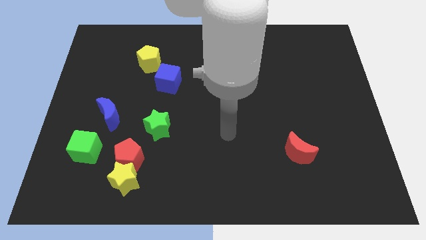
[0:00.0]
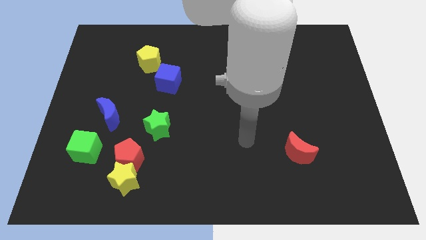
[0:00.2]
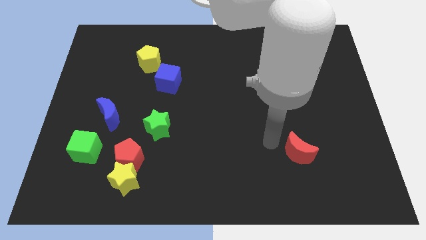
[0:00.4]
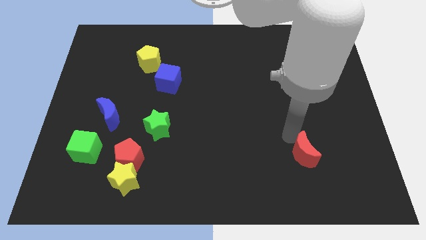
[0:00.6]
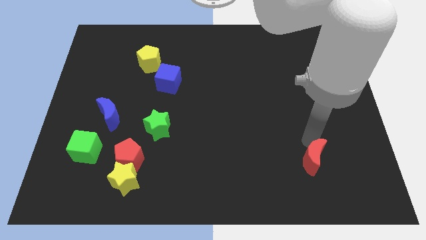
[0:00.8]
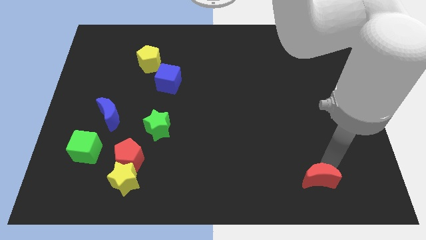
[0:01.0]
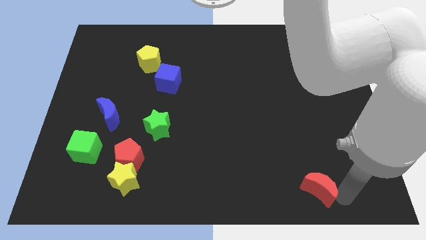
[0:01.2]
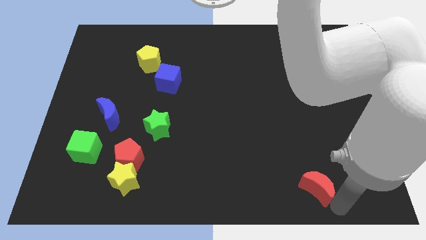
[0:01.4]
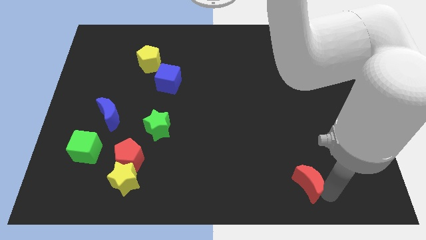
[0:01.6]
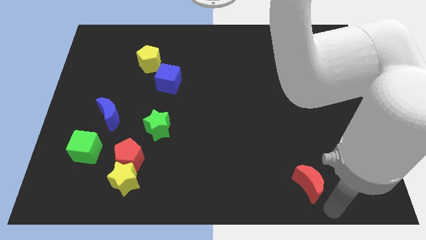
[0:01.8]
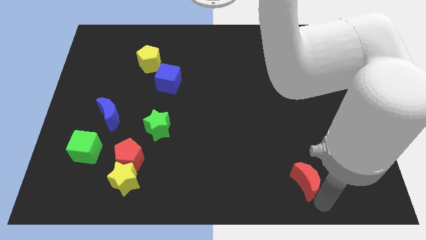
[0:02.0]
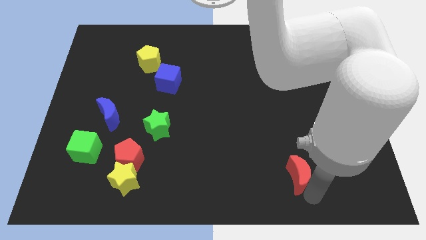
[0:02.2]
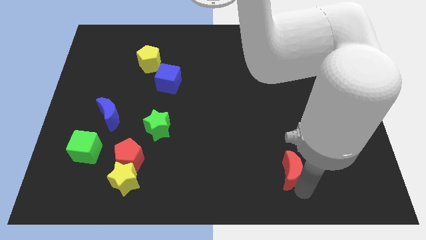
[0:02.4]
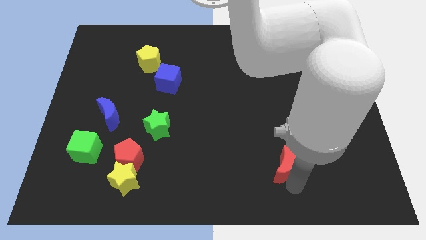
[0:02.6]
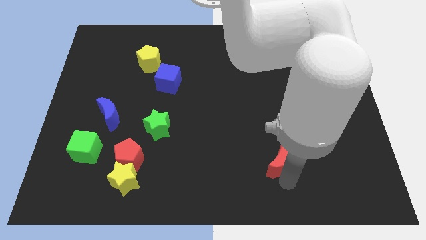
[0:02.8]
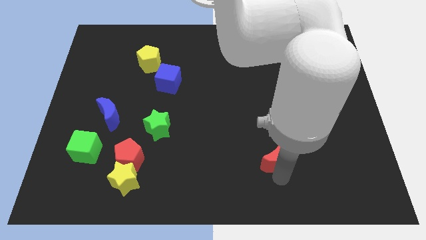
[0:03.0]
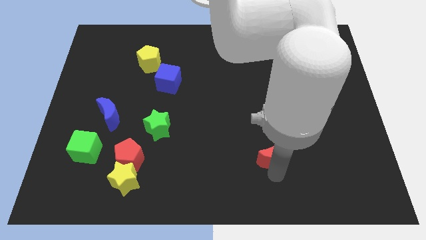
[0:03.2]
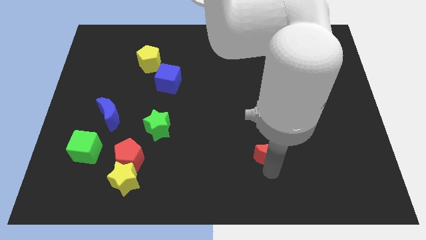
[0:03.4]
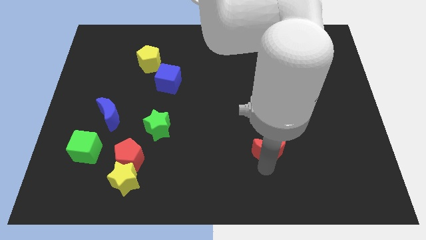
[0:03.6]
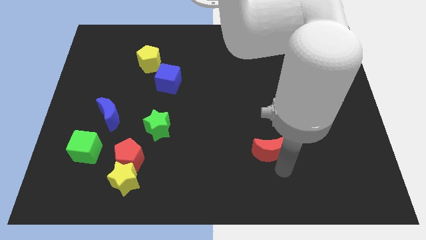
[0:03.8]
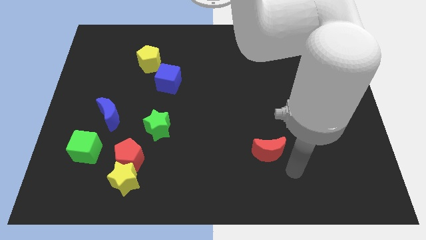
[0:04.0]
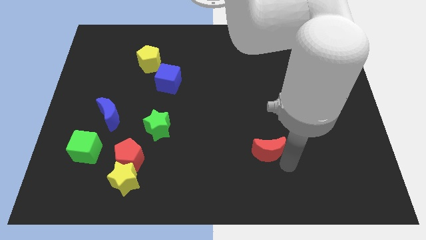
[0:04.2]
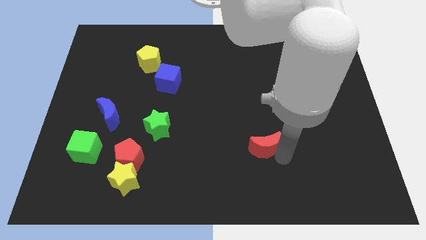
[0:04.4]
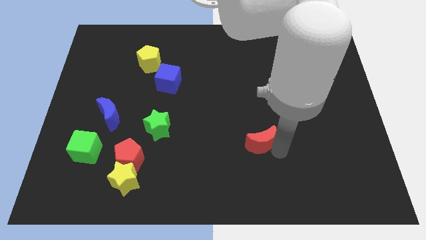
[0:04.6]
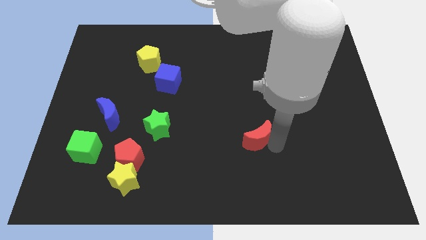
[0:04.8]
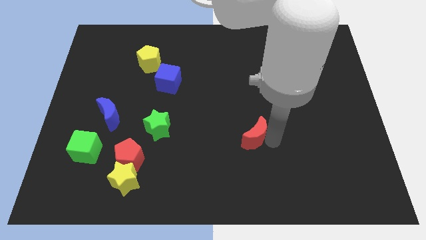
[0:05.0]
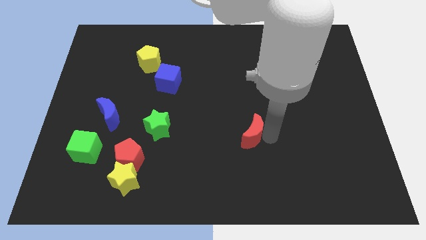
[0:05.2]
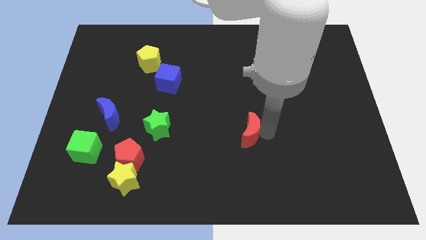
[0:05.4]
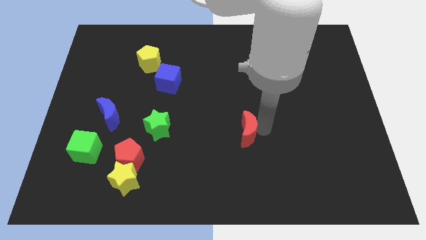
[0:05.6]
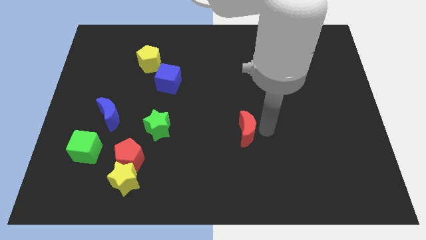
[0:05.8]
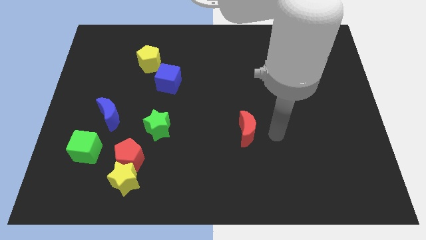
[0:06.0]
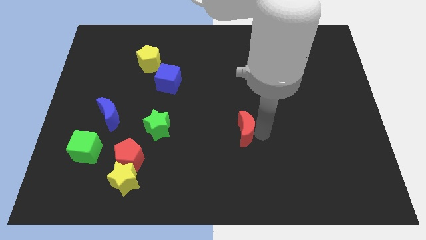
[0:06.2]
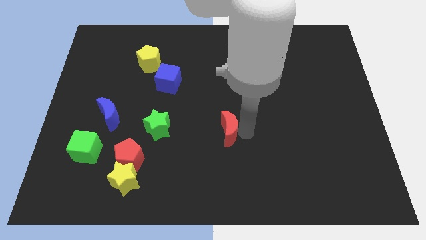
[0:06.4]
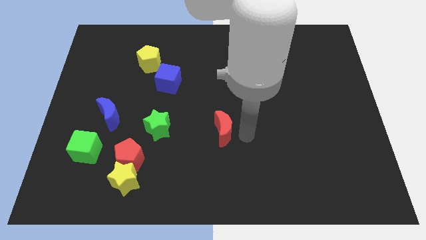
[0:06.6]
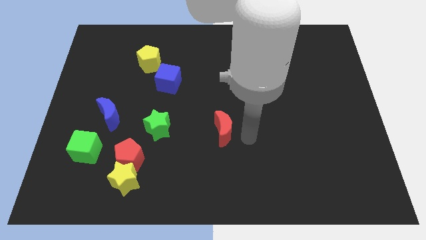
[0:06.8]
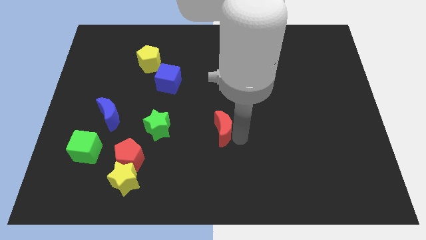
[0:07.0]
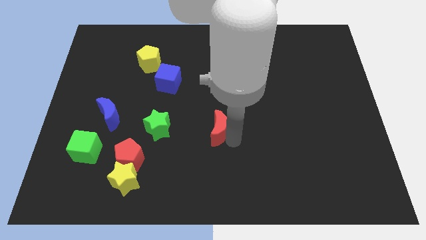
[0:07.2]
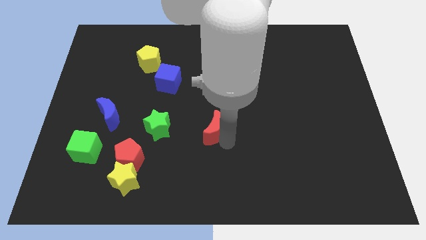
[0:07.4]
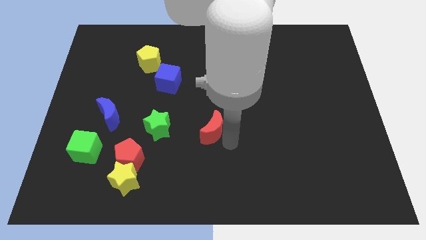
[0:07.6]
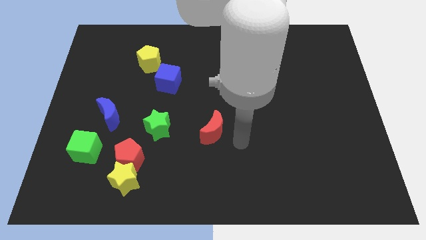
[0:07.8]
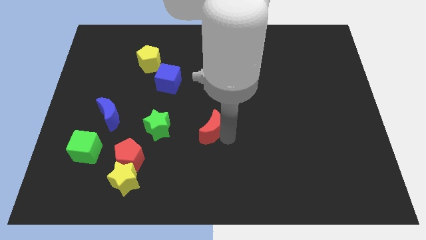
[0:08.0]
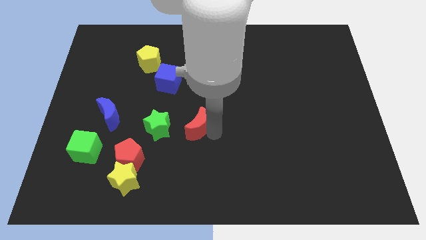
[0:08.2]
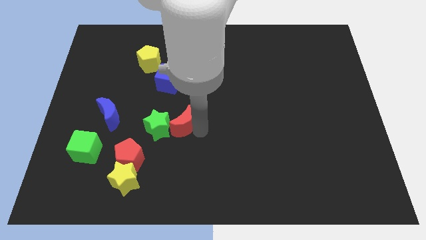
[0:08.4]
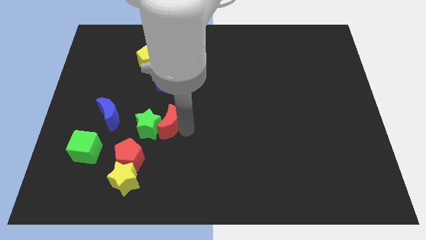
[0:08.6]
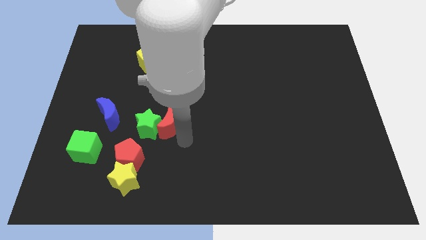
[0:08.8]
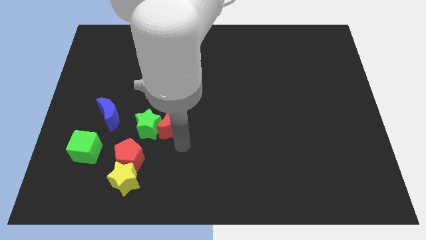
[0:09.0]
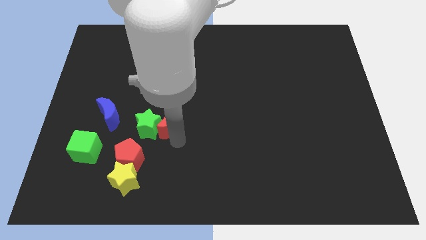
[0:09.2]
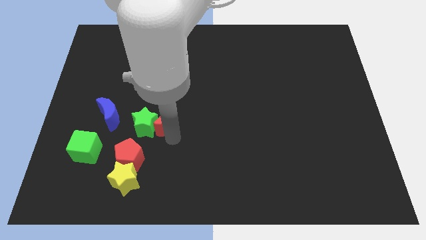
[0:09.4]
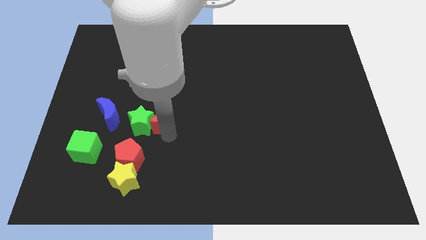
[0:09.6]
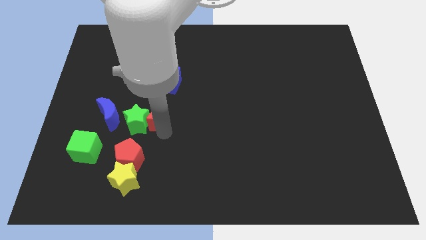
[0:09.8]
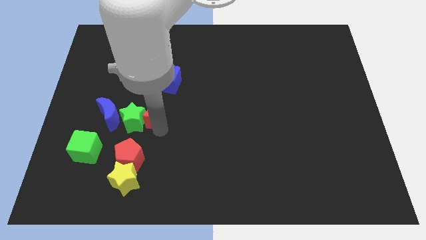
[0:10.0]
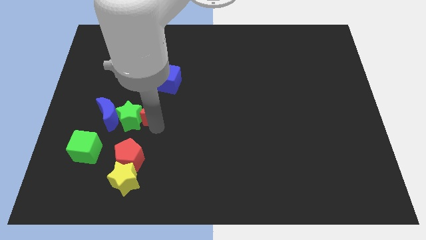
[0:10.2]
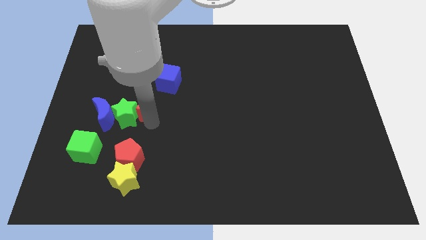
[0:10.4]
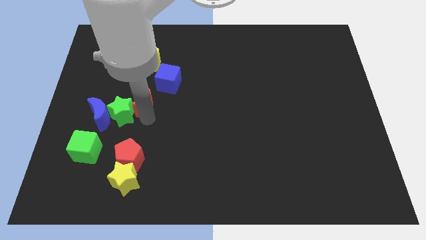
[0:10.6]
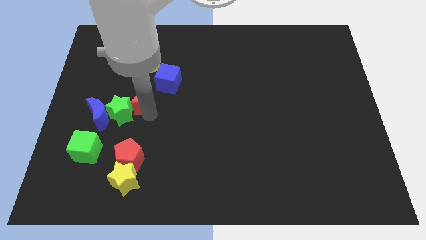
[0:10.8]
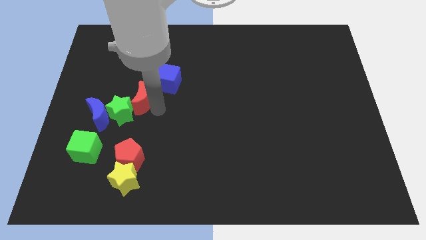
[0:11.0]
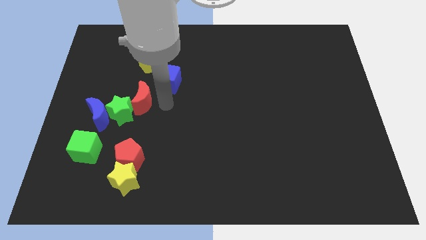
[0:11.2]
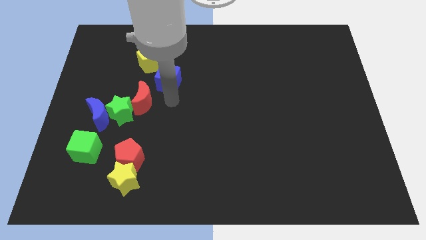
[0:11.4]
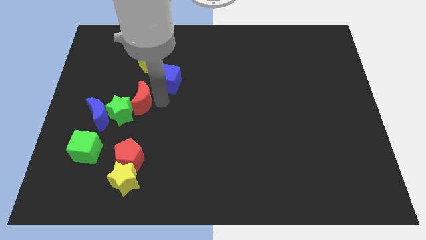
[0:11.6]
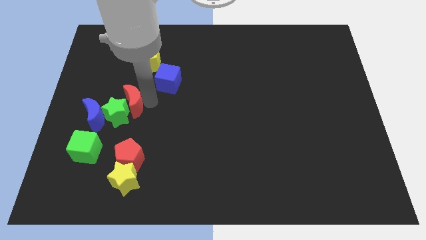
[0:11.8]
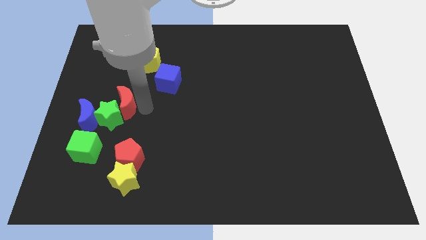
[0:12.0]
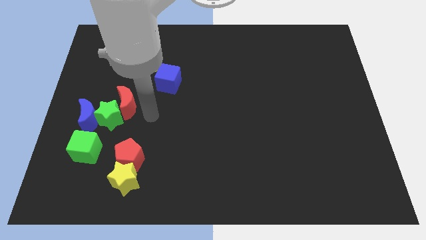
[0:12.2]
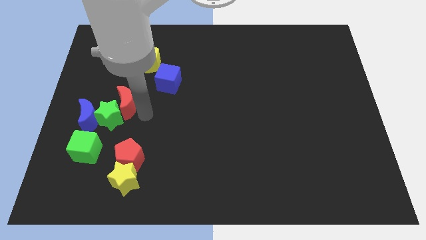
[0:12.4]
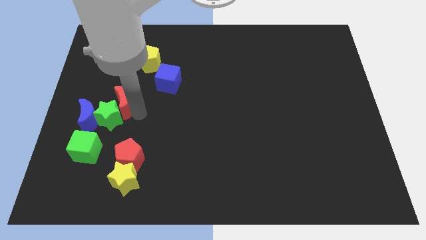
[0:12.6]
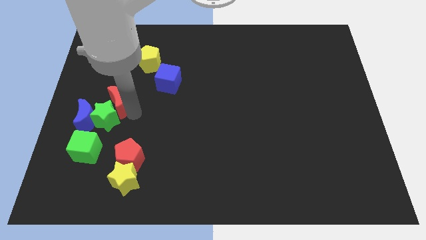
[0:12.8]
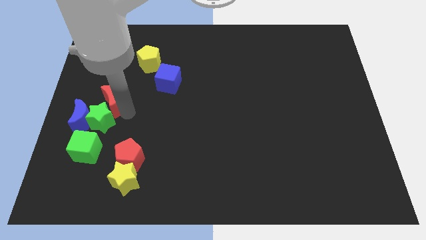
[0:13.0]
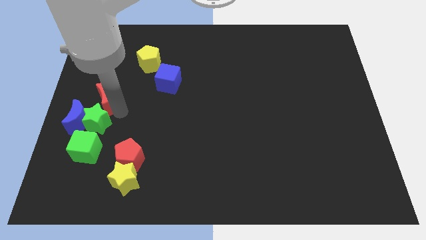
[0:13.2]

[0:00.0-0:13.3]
move the red moon to the left side of the board
